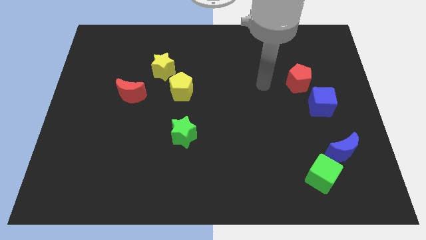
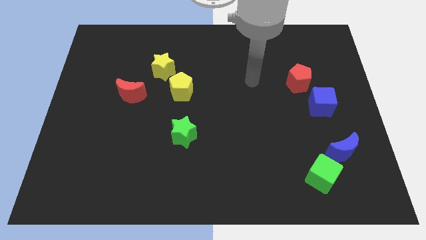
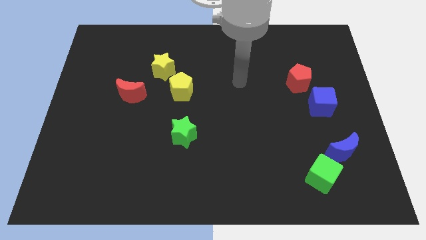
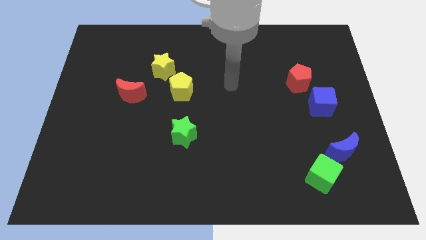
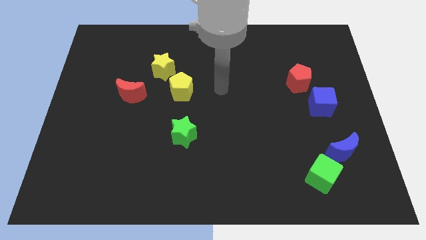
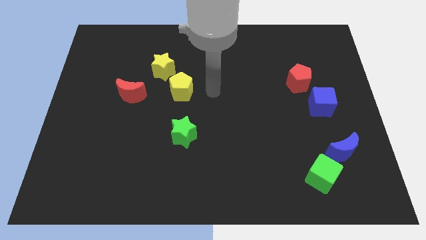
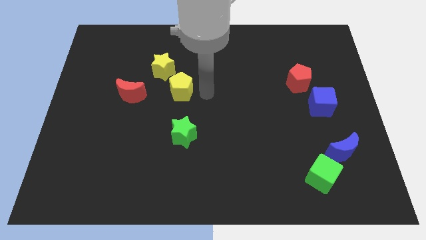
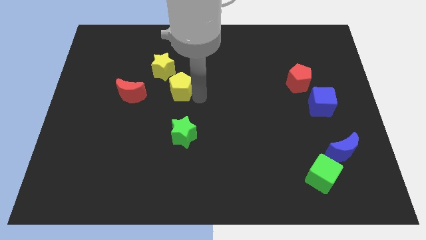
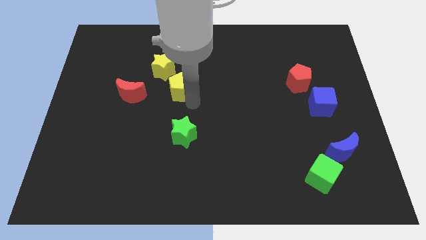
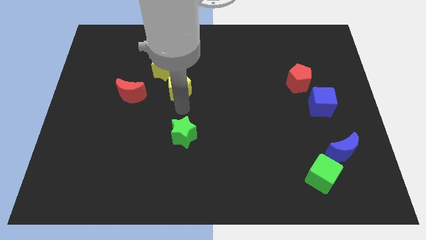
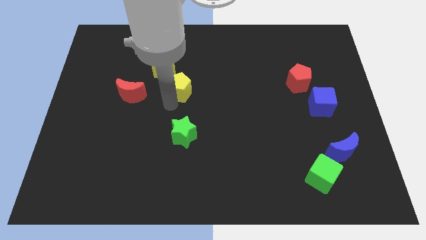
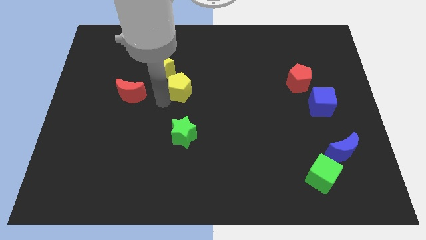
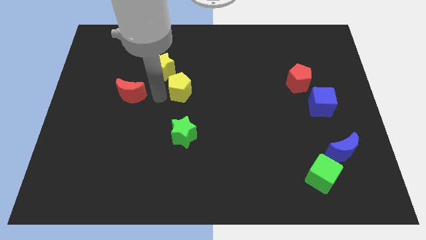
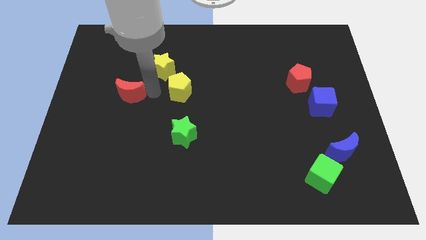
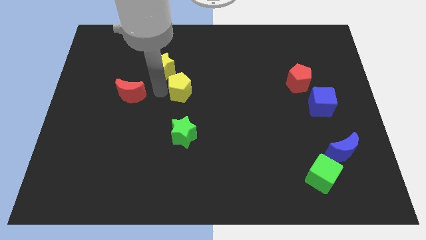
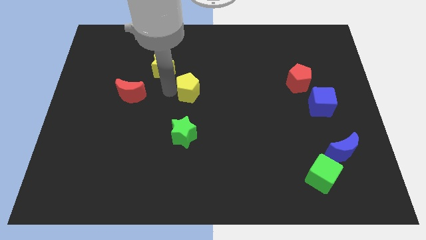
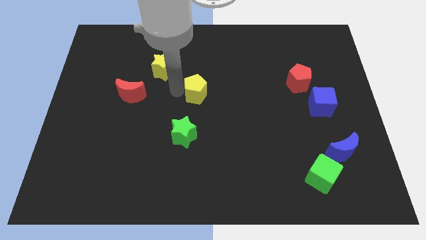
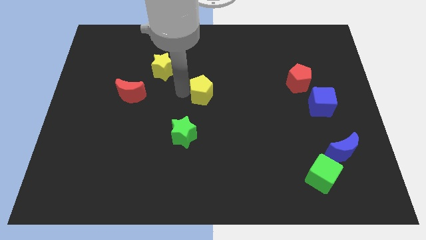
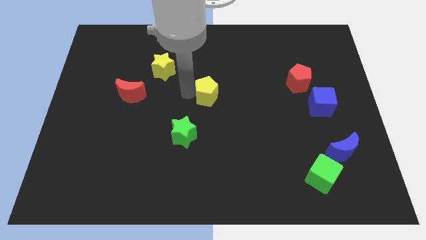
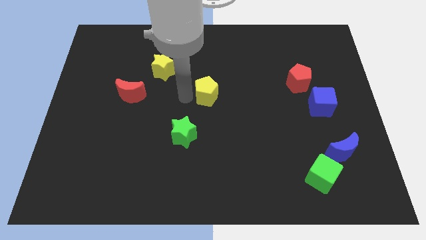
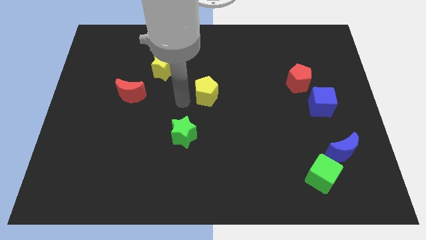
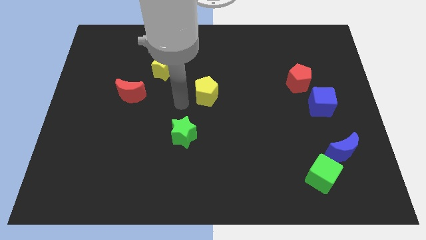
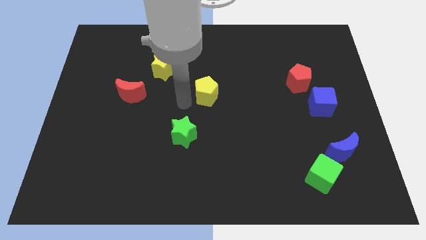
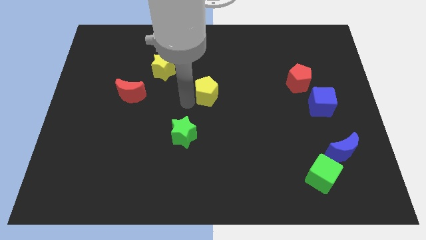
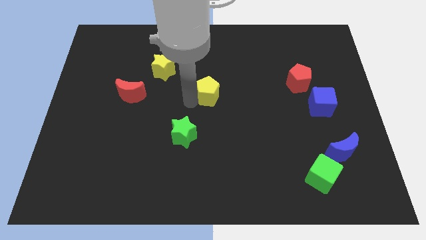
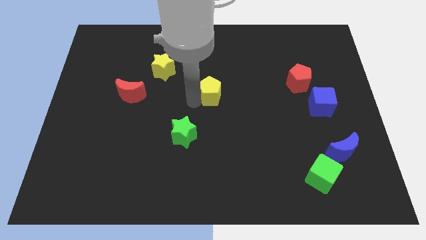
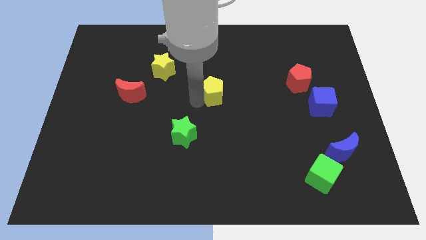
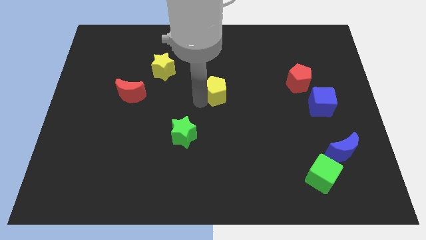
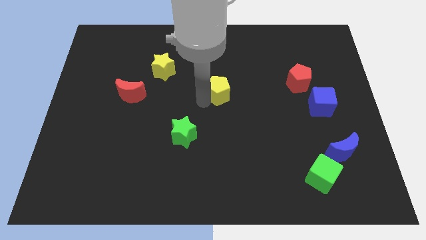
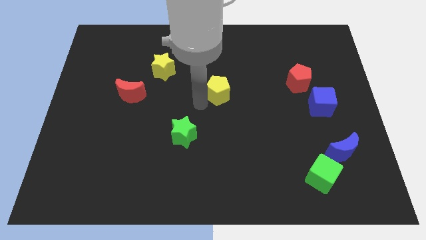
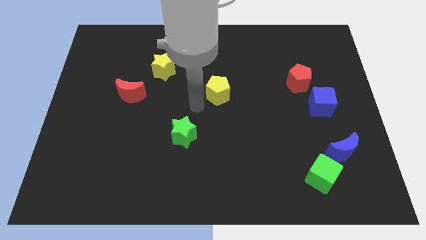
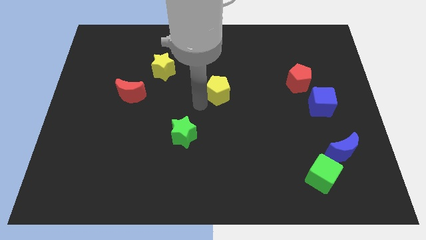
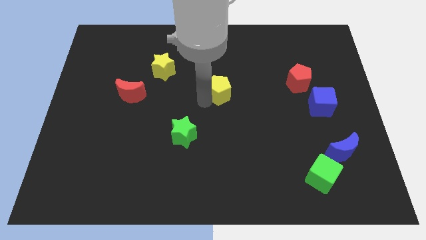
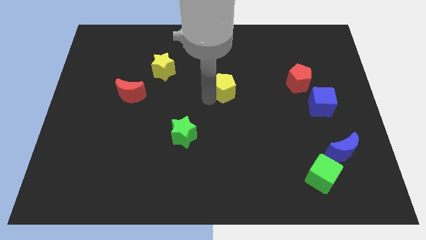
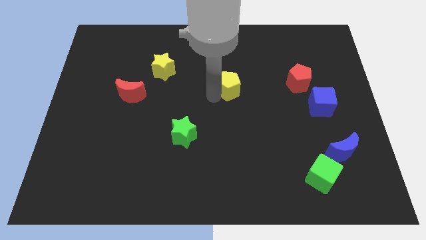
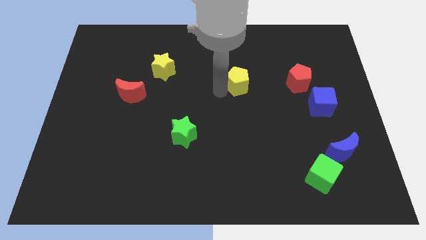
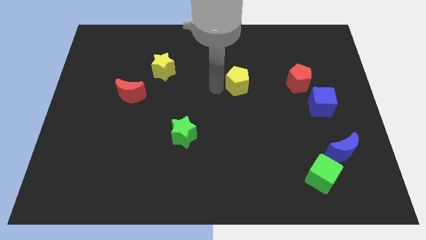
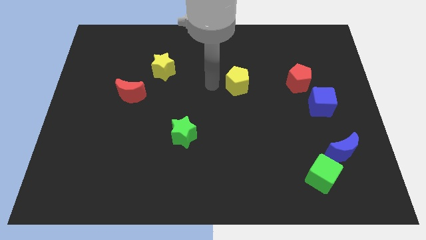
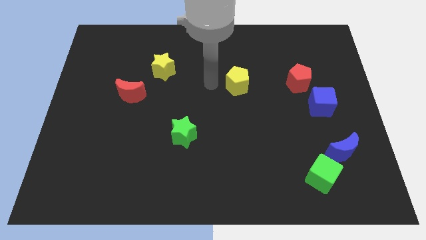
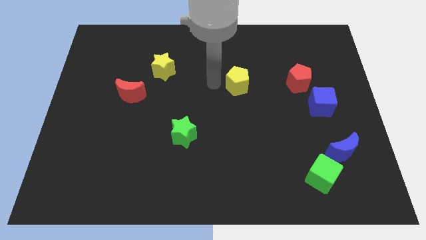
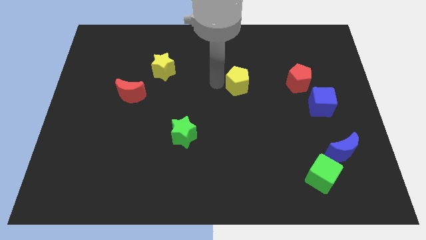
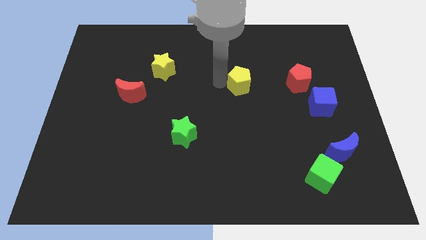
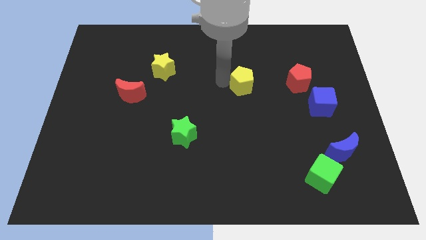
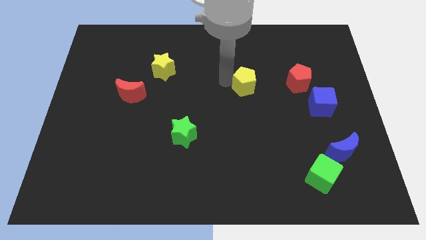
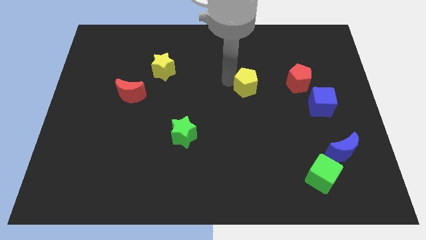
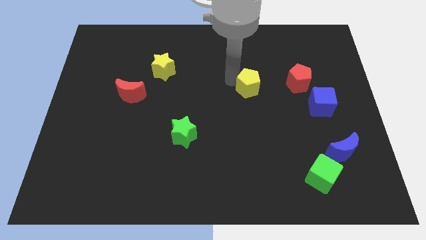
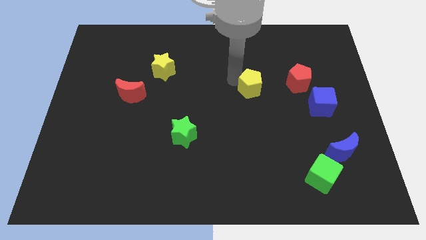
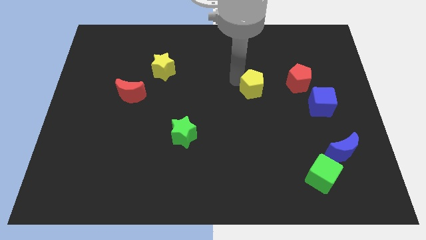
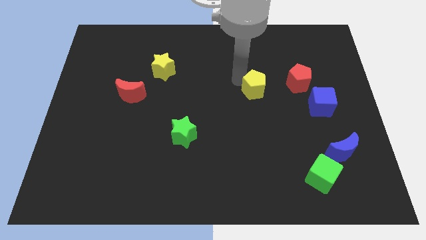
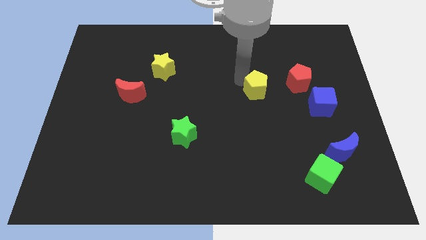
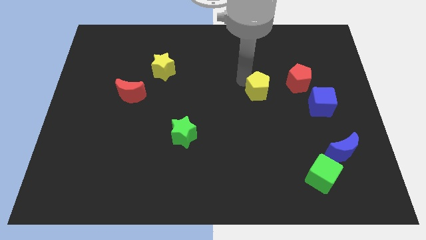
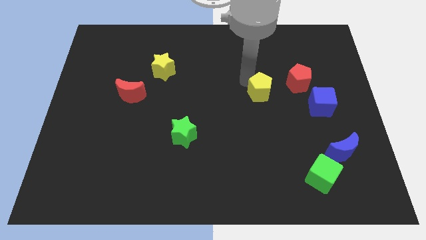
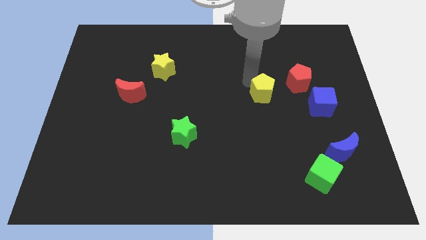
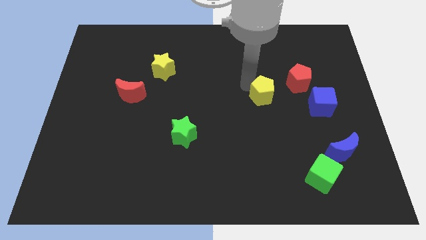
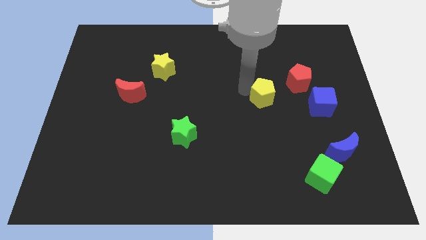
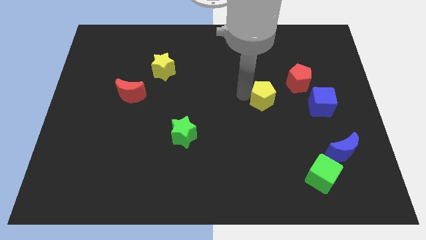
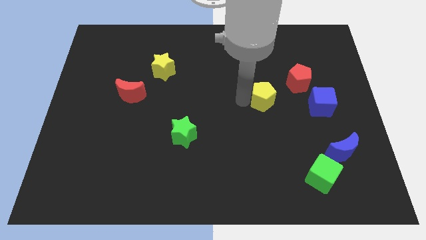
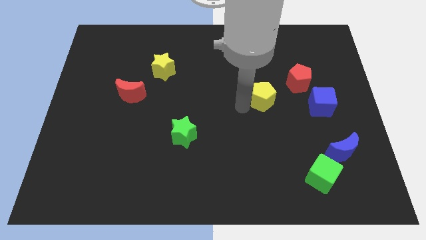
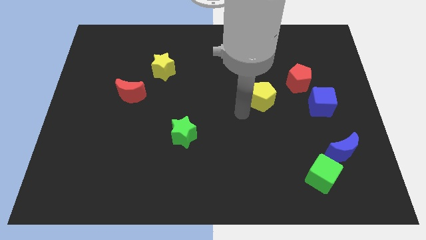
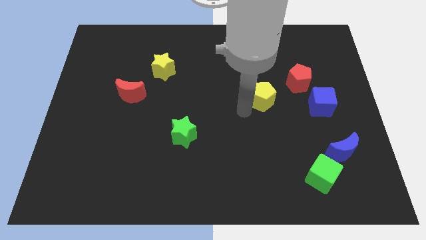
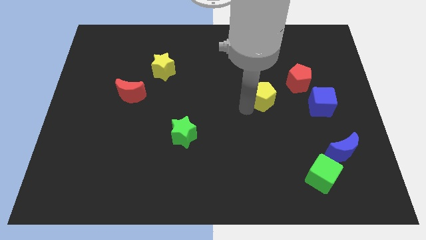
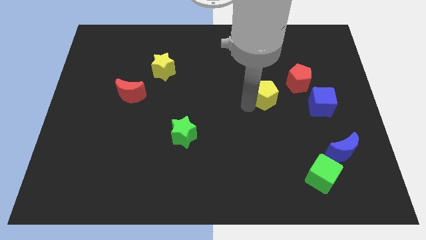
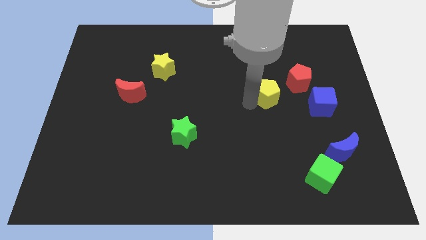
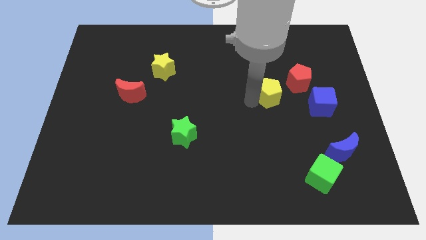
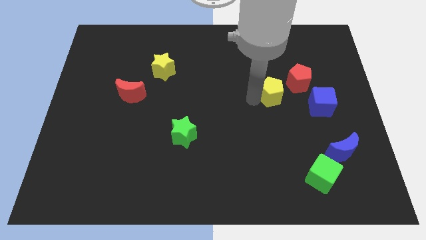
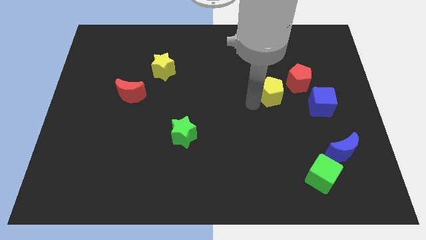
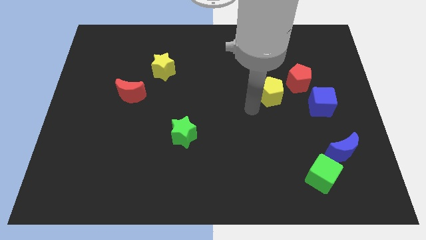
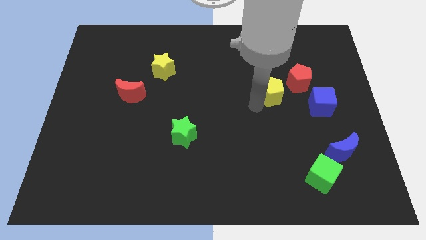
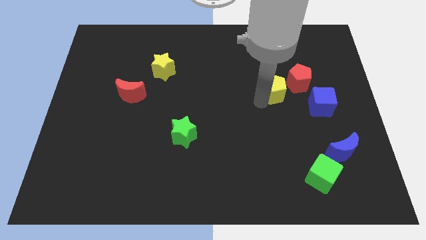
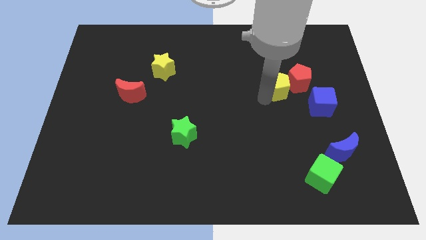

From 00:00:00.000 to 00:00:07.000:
push the yellow pentagon next to the red pentagon
